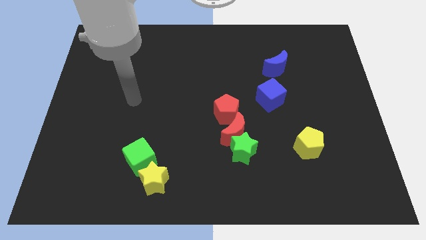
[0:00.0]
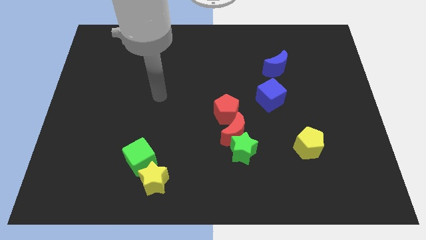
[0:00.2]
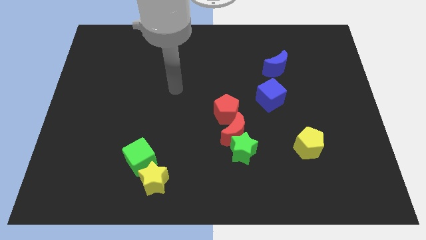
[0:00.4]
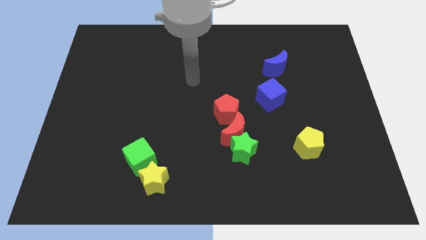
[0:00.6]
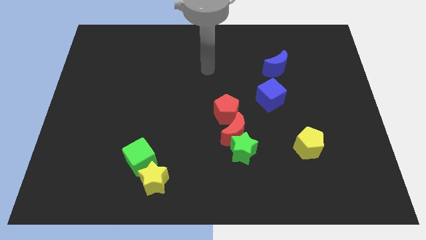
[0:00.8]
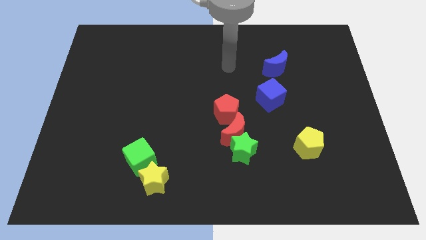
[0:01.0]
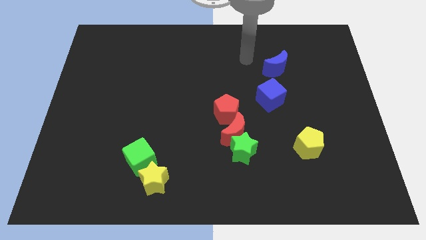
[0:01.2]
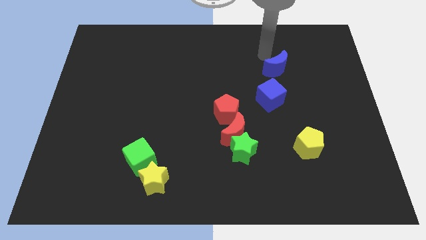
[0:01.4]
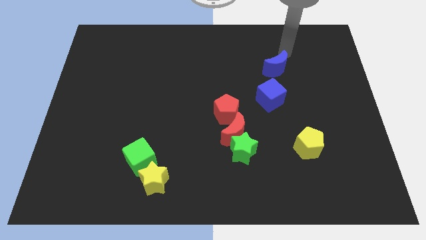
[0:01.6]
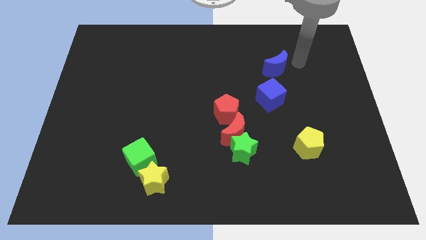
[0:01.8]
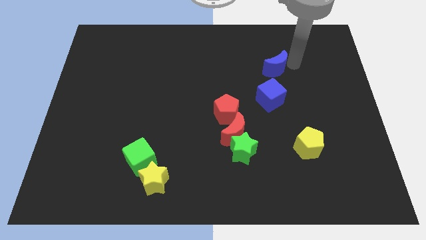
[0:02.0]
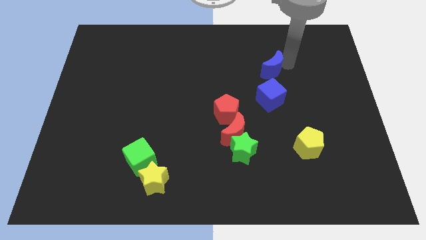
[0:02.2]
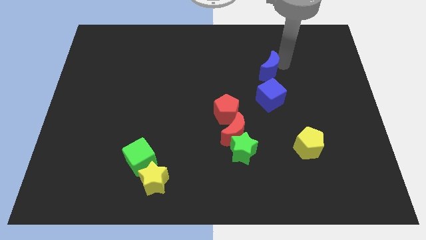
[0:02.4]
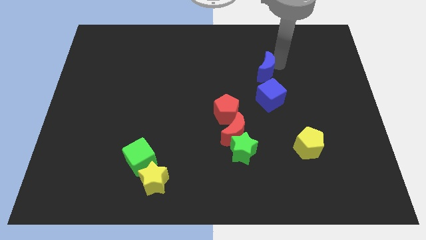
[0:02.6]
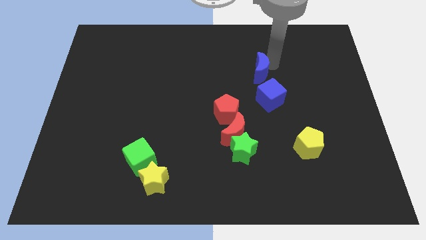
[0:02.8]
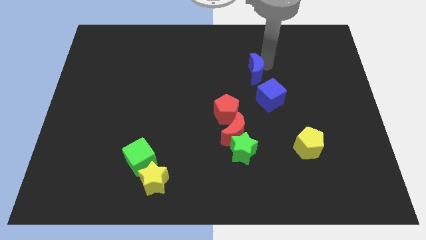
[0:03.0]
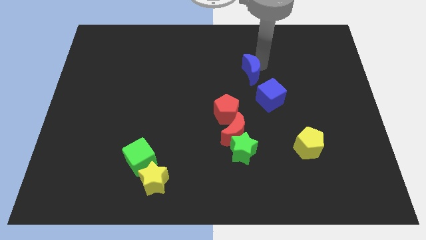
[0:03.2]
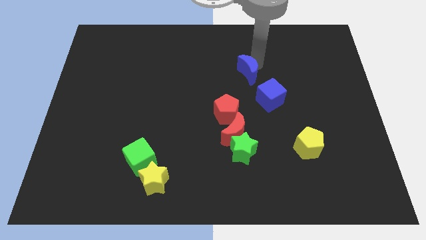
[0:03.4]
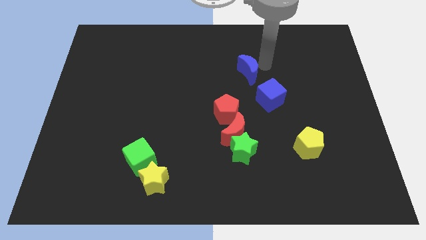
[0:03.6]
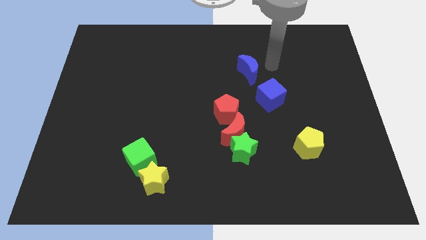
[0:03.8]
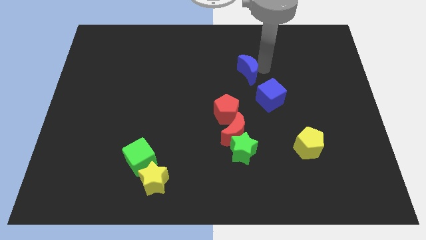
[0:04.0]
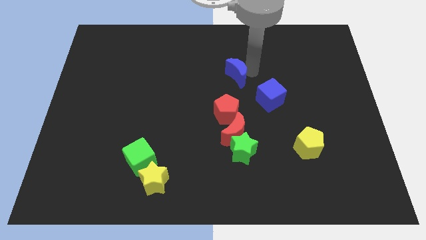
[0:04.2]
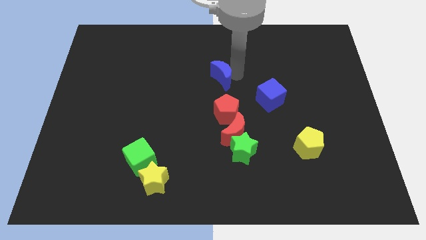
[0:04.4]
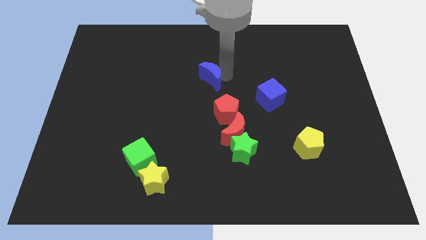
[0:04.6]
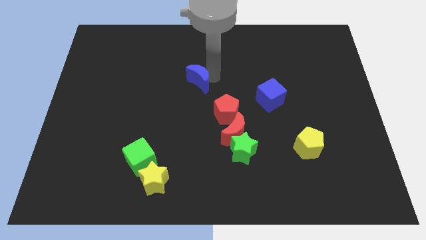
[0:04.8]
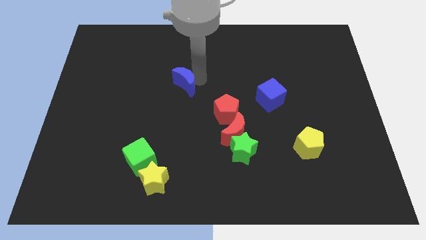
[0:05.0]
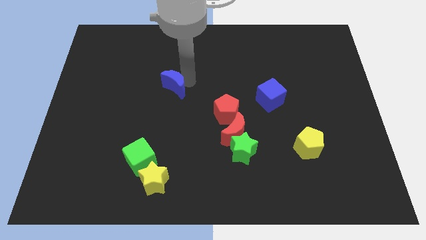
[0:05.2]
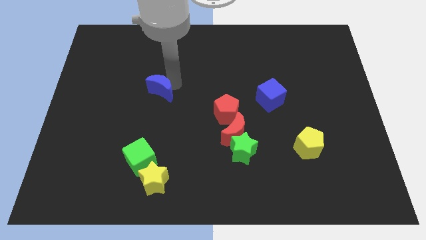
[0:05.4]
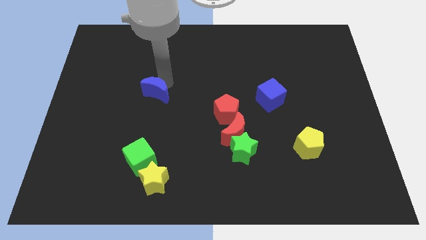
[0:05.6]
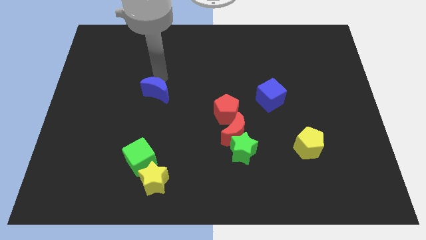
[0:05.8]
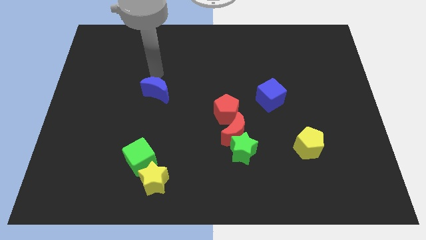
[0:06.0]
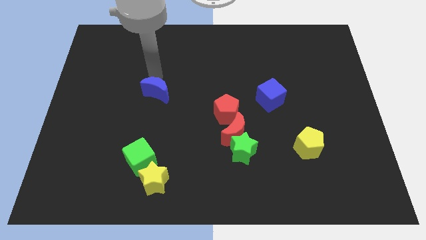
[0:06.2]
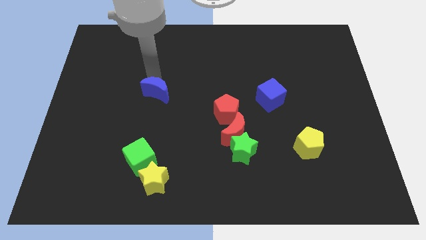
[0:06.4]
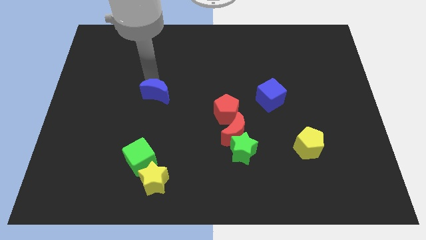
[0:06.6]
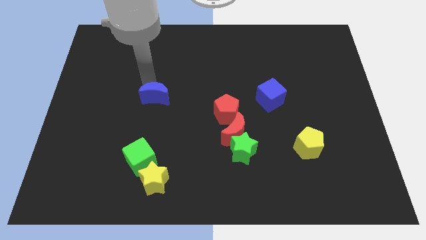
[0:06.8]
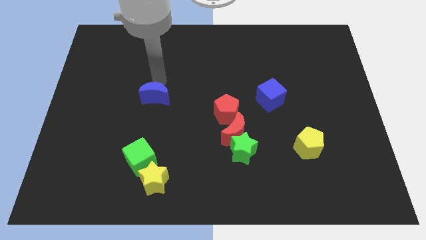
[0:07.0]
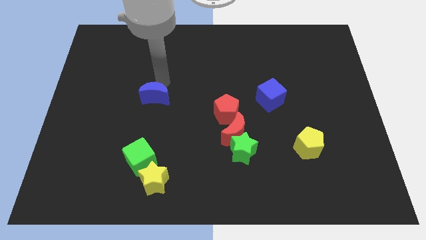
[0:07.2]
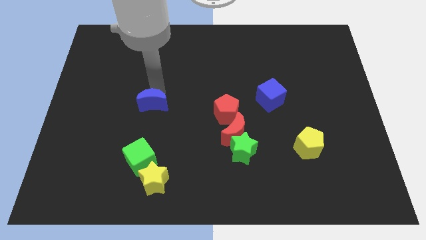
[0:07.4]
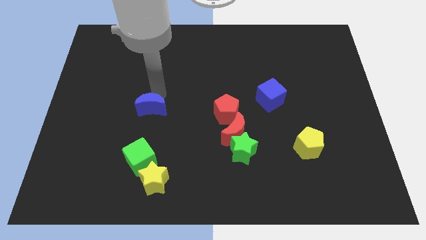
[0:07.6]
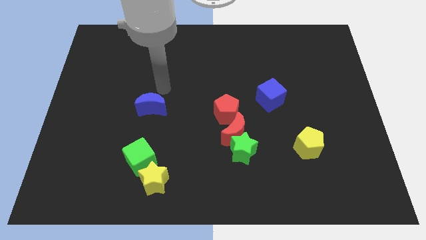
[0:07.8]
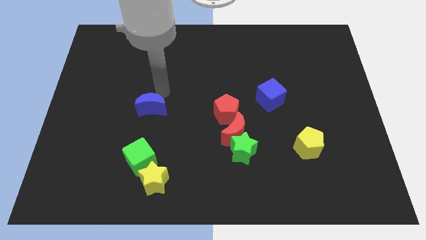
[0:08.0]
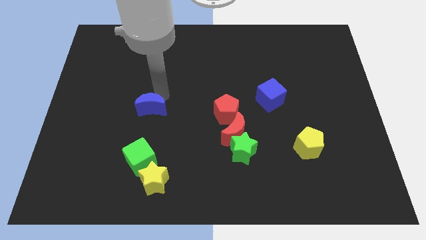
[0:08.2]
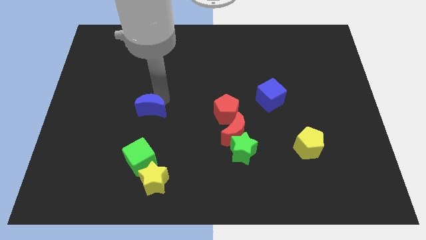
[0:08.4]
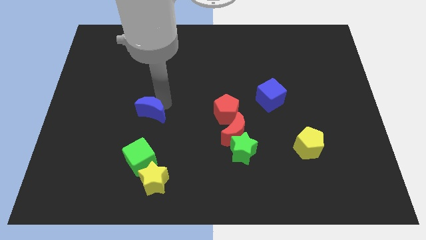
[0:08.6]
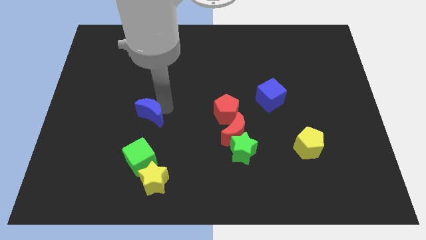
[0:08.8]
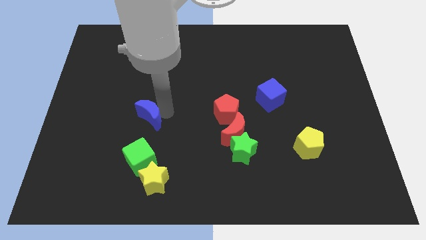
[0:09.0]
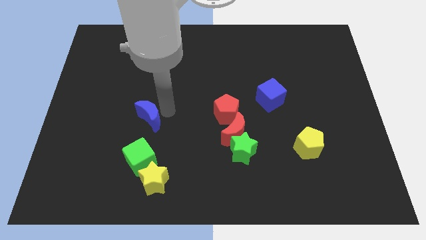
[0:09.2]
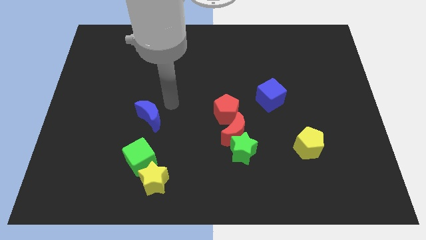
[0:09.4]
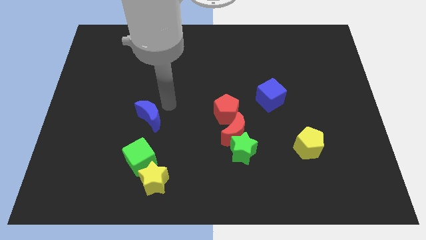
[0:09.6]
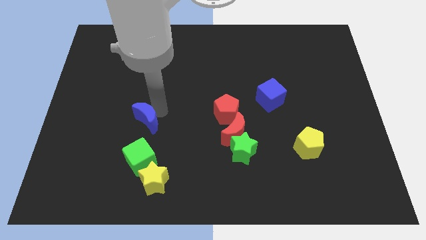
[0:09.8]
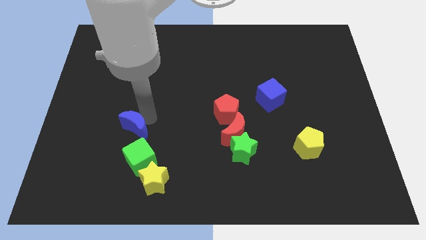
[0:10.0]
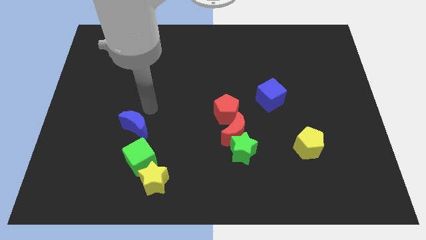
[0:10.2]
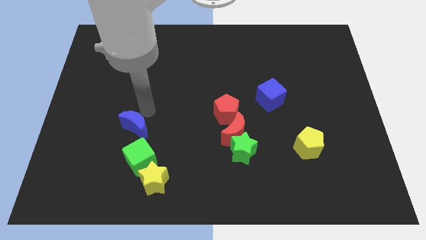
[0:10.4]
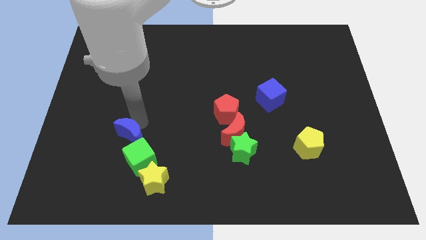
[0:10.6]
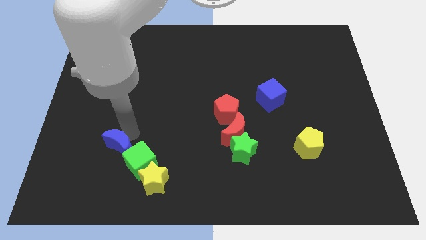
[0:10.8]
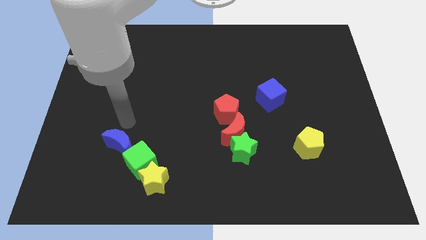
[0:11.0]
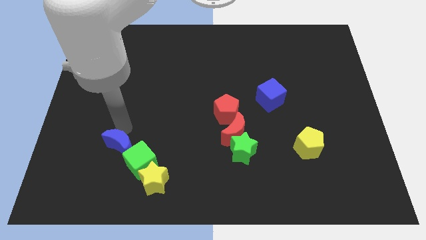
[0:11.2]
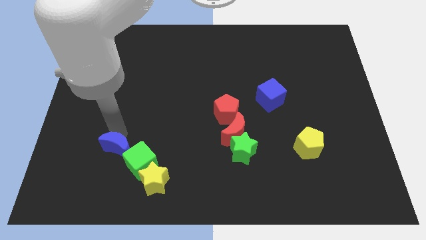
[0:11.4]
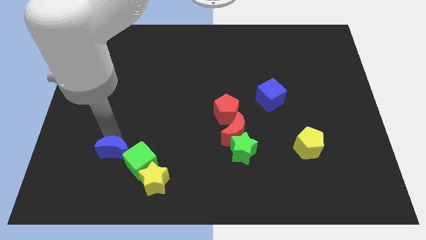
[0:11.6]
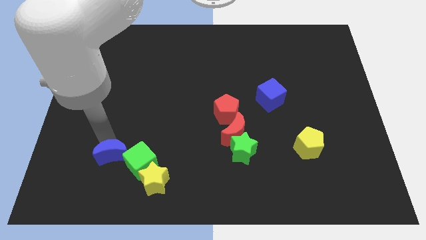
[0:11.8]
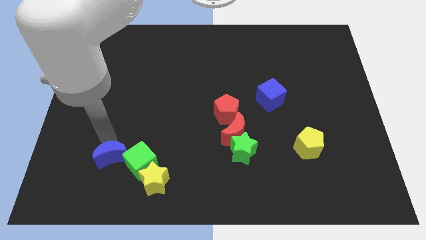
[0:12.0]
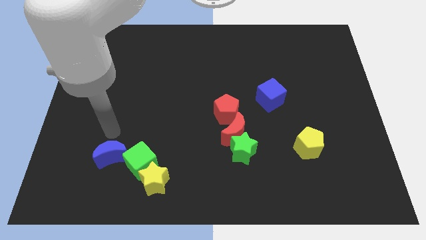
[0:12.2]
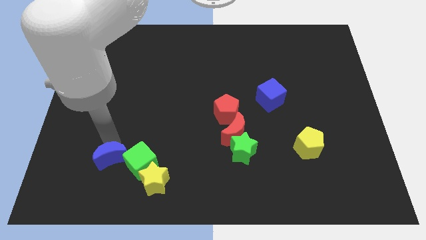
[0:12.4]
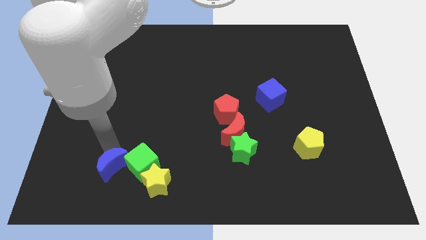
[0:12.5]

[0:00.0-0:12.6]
slide the blue moon to the bottom left of the green cube

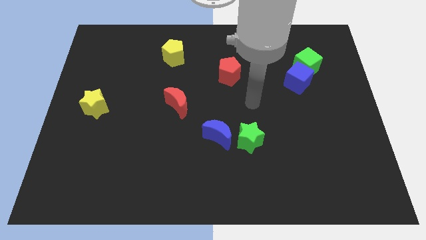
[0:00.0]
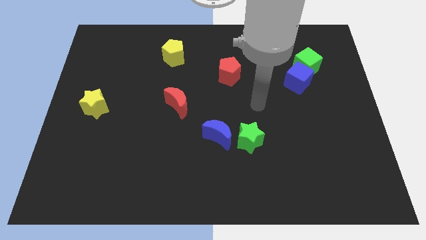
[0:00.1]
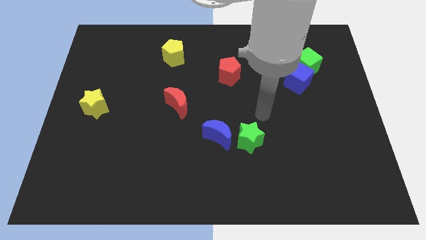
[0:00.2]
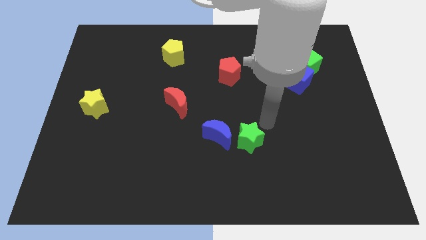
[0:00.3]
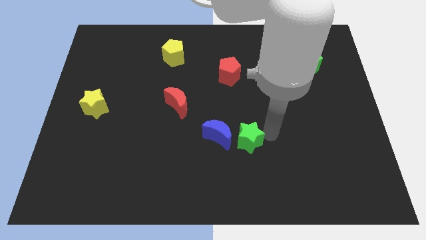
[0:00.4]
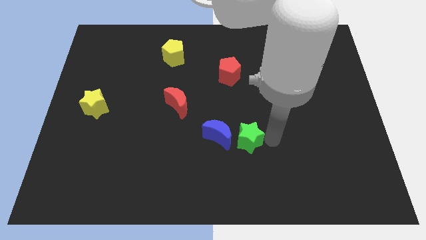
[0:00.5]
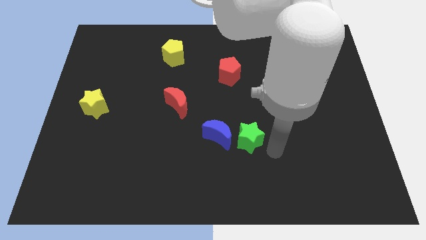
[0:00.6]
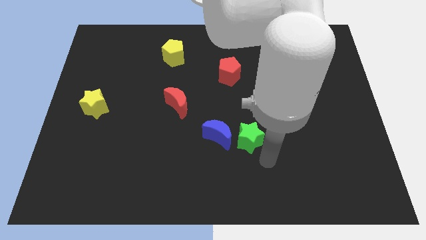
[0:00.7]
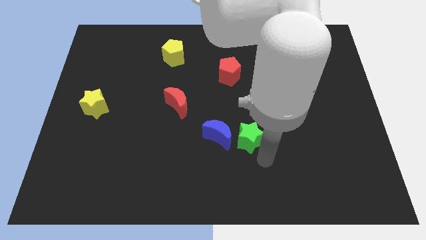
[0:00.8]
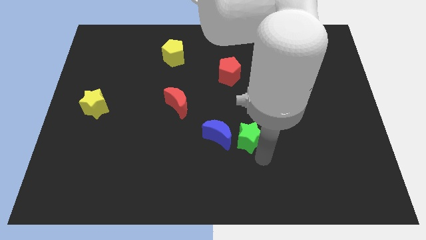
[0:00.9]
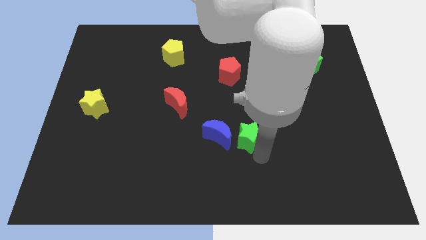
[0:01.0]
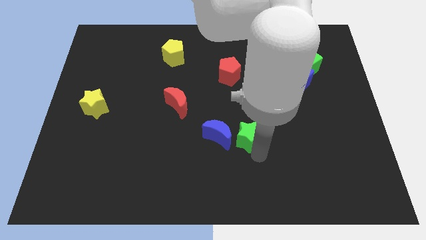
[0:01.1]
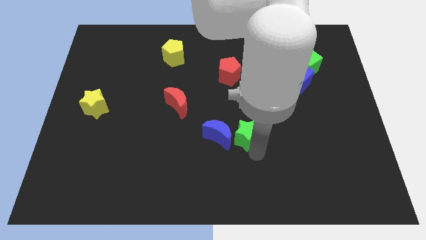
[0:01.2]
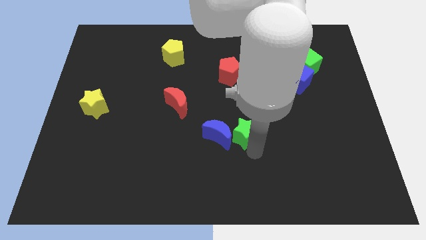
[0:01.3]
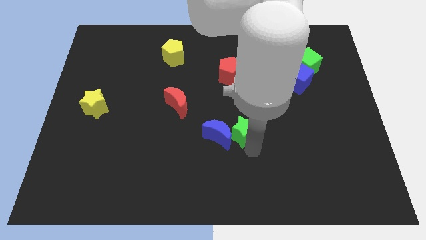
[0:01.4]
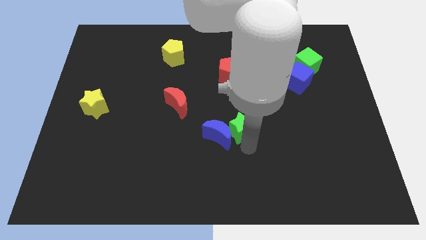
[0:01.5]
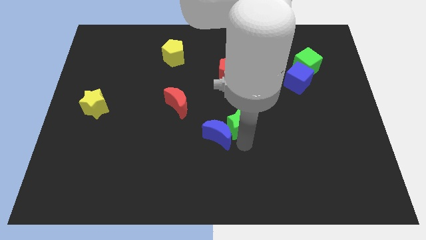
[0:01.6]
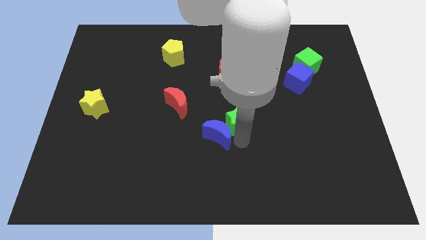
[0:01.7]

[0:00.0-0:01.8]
push the green star to the top of the blue moon
